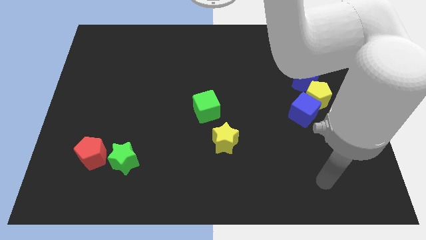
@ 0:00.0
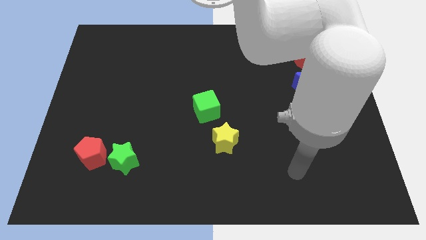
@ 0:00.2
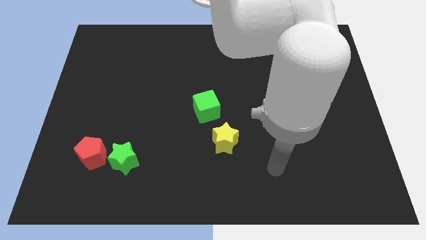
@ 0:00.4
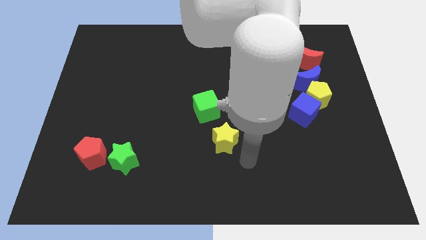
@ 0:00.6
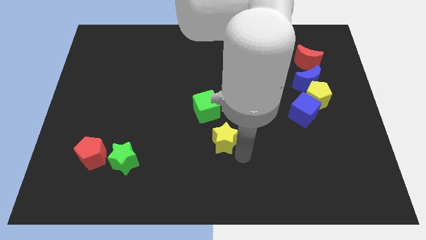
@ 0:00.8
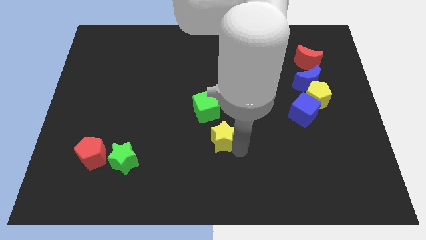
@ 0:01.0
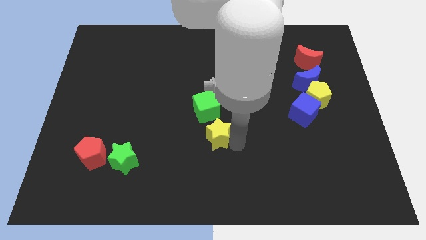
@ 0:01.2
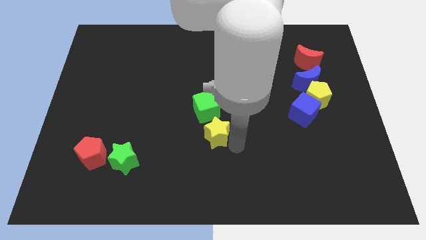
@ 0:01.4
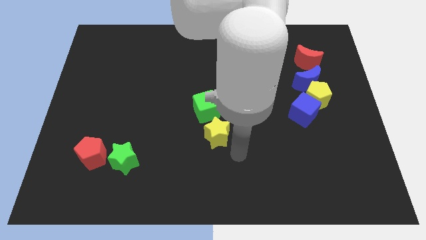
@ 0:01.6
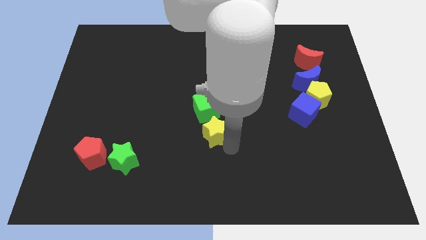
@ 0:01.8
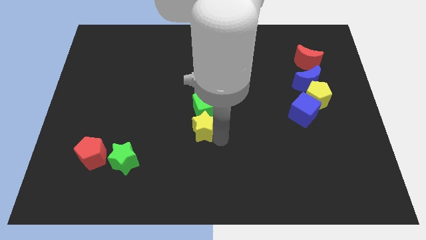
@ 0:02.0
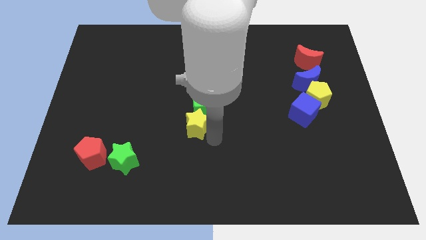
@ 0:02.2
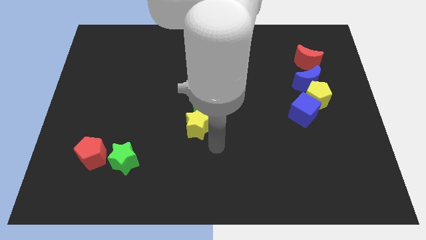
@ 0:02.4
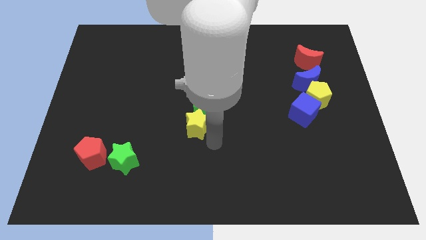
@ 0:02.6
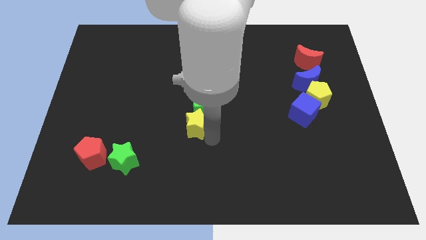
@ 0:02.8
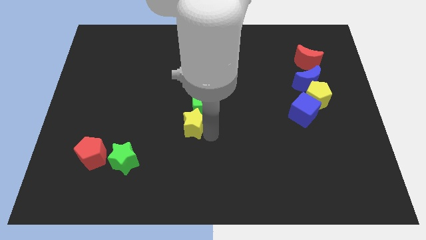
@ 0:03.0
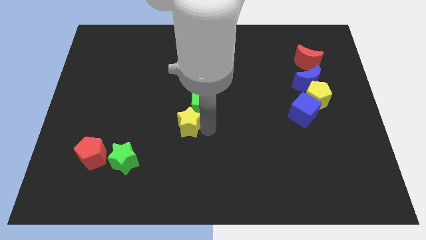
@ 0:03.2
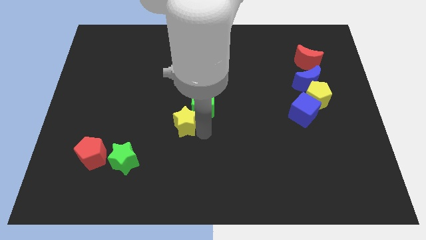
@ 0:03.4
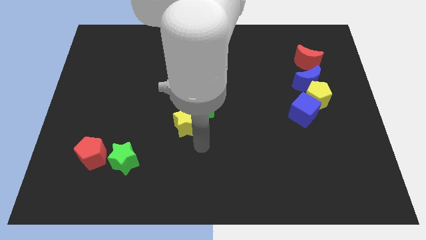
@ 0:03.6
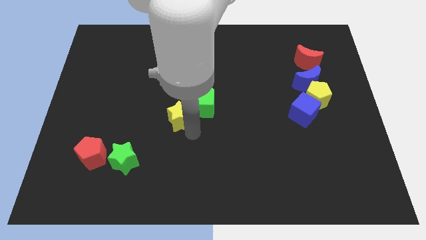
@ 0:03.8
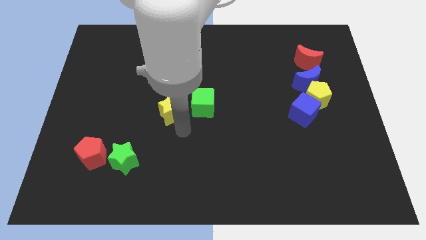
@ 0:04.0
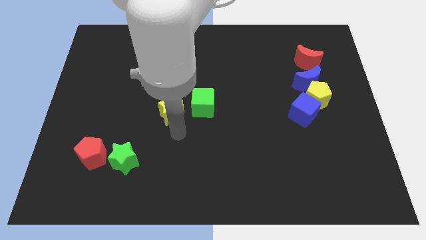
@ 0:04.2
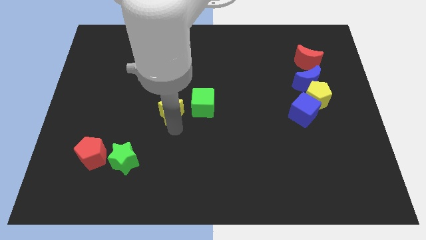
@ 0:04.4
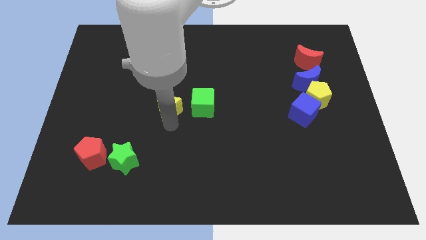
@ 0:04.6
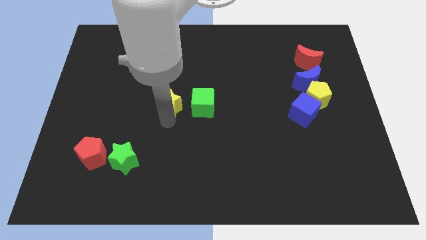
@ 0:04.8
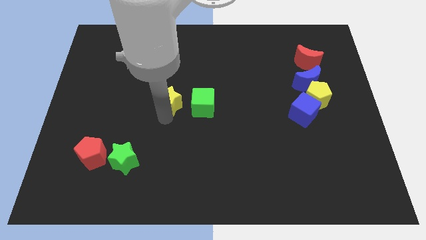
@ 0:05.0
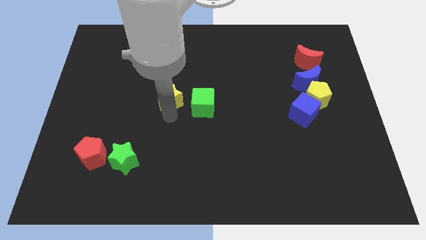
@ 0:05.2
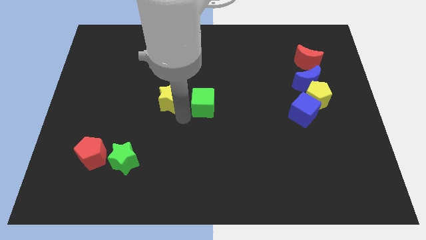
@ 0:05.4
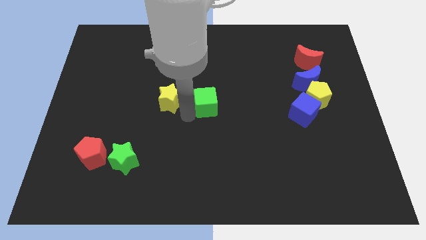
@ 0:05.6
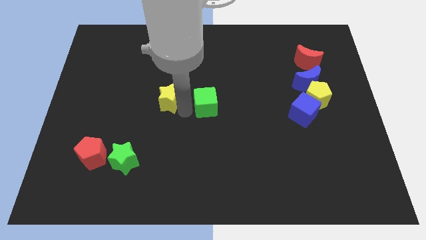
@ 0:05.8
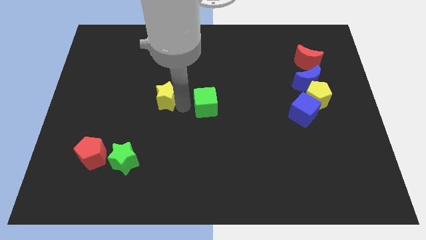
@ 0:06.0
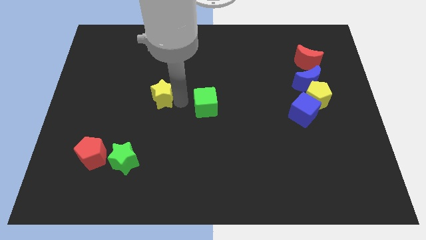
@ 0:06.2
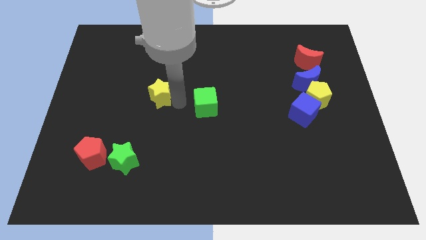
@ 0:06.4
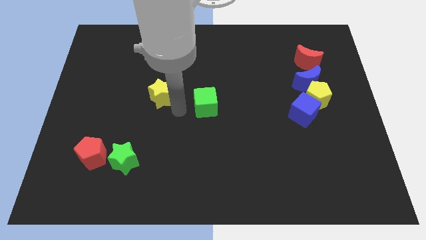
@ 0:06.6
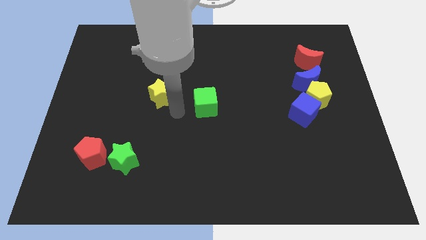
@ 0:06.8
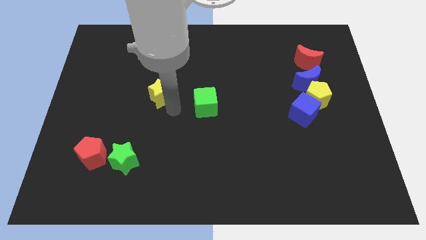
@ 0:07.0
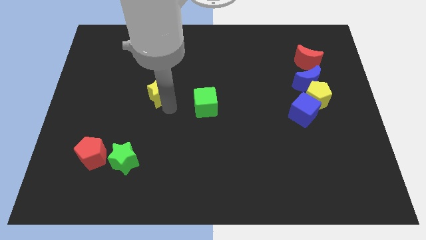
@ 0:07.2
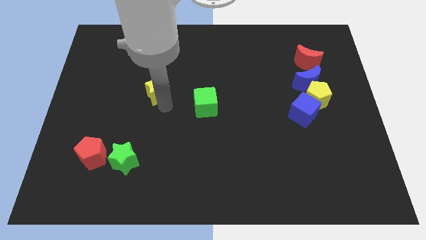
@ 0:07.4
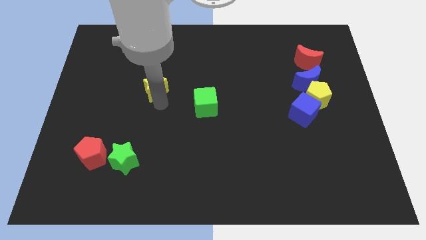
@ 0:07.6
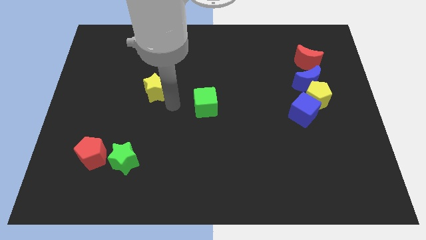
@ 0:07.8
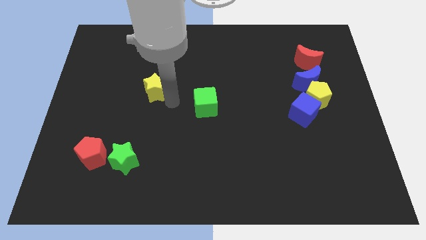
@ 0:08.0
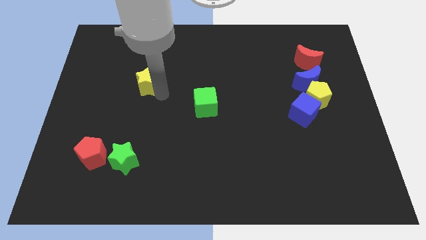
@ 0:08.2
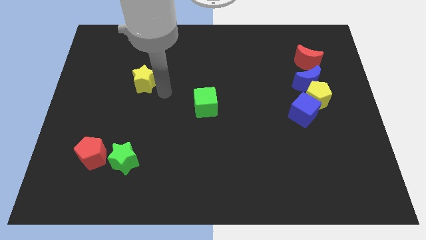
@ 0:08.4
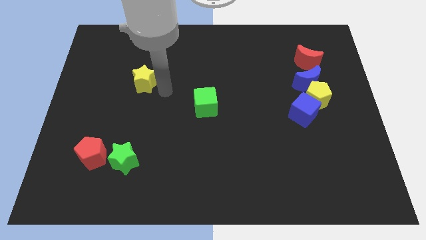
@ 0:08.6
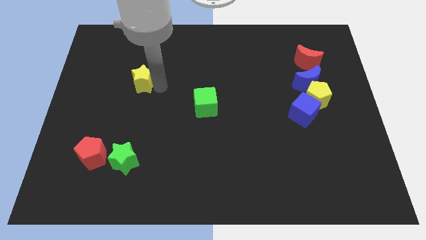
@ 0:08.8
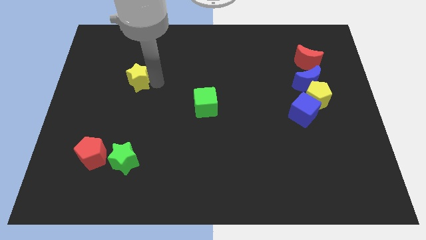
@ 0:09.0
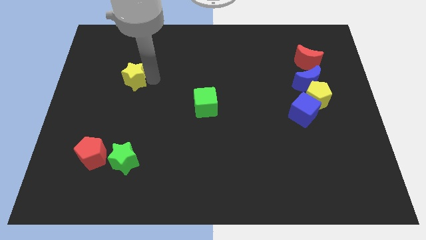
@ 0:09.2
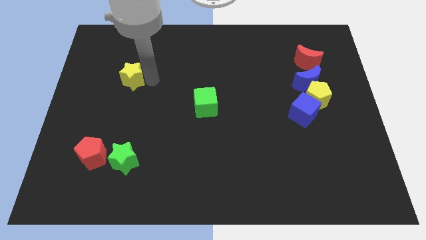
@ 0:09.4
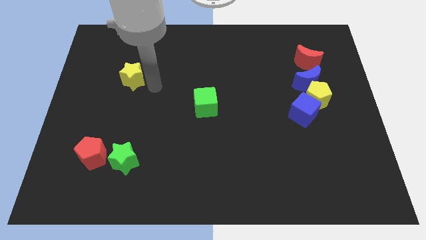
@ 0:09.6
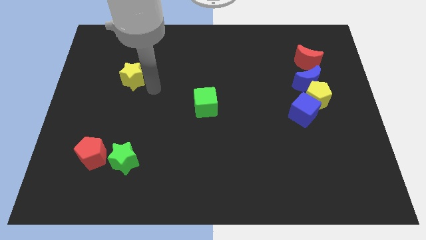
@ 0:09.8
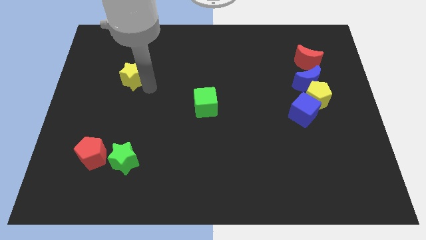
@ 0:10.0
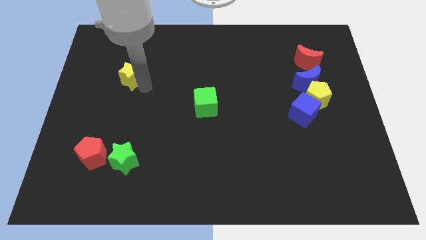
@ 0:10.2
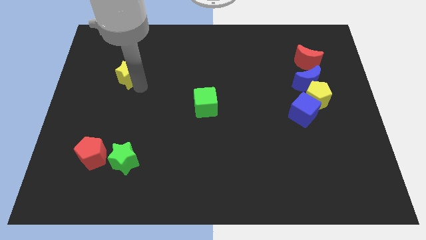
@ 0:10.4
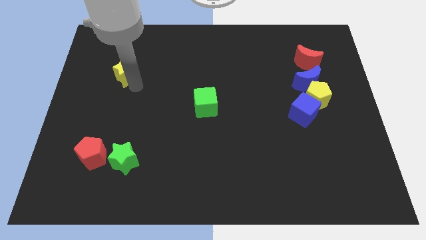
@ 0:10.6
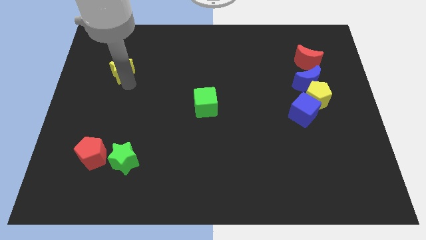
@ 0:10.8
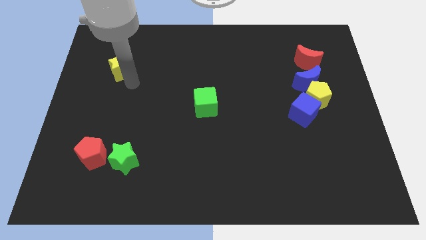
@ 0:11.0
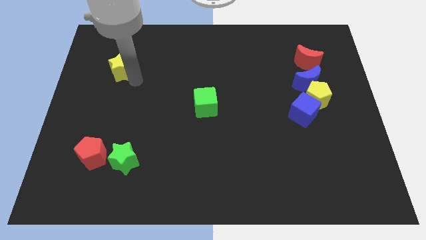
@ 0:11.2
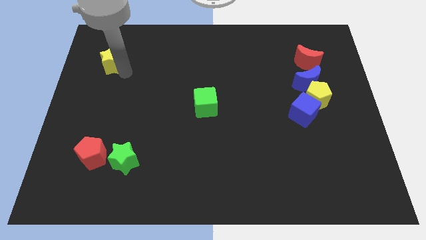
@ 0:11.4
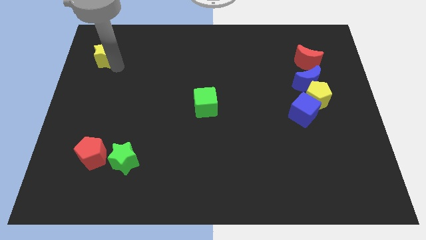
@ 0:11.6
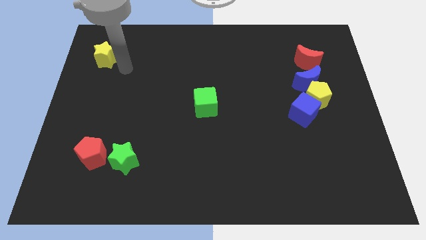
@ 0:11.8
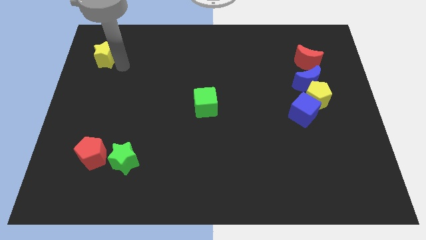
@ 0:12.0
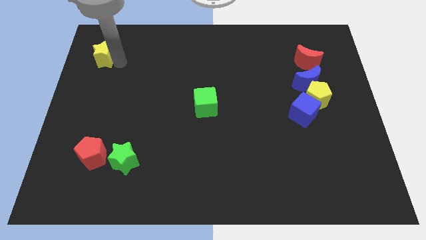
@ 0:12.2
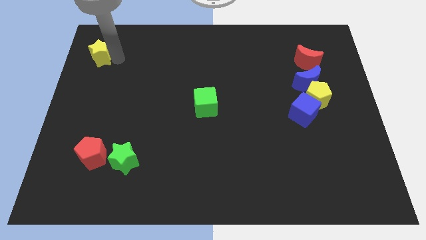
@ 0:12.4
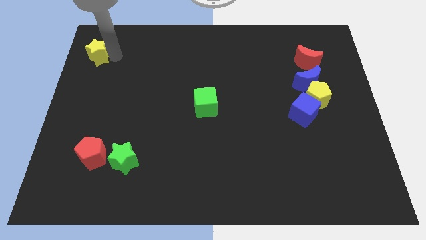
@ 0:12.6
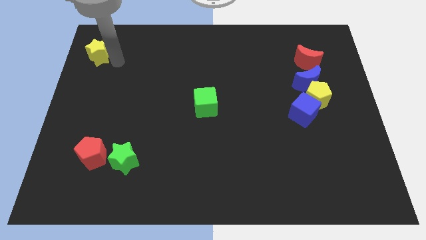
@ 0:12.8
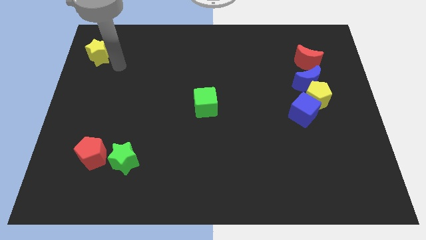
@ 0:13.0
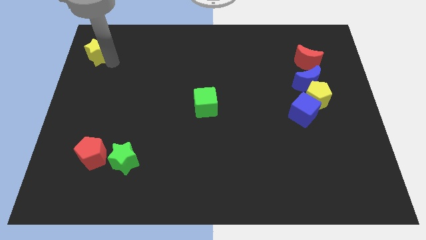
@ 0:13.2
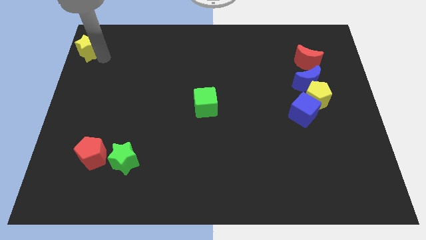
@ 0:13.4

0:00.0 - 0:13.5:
slide the yellow star to the upper left corner
